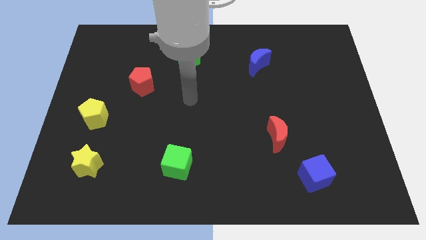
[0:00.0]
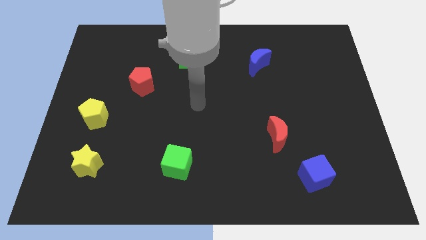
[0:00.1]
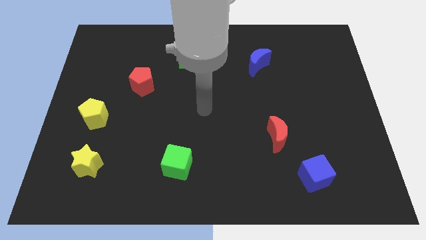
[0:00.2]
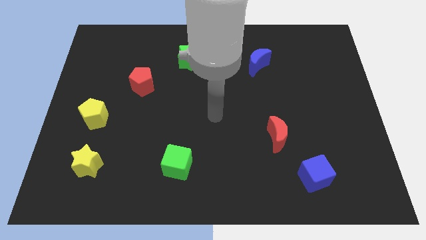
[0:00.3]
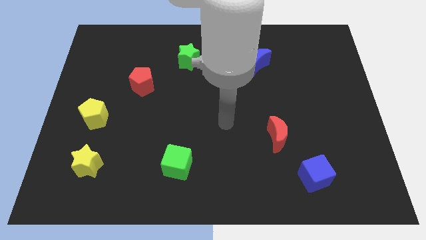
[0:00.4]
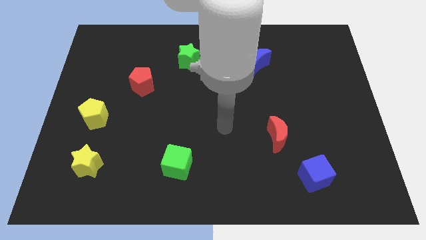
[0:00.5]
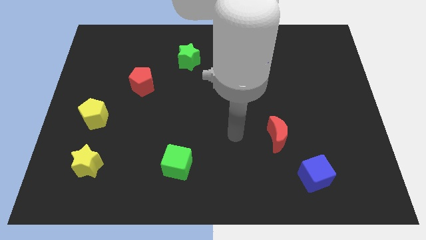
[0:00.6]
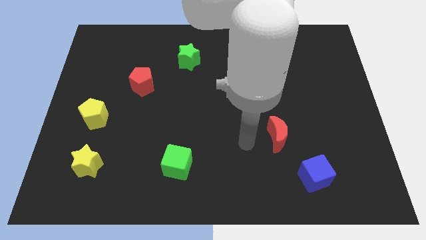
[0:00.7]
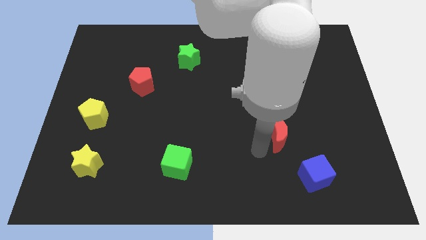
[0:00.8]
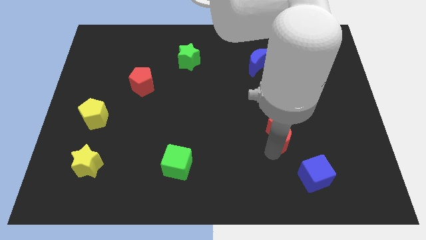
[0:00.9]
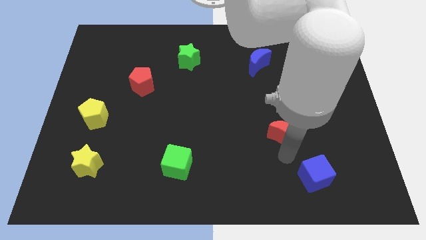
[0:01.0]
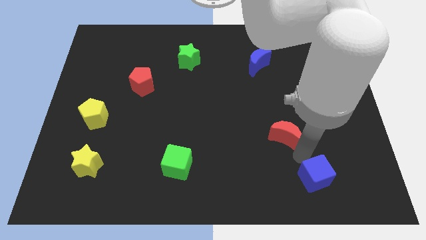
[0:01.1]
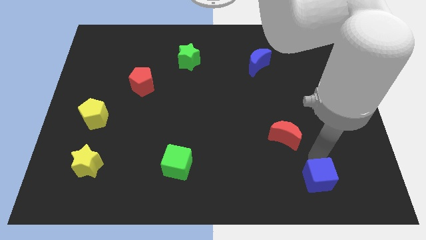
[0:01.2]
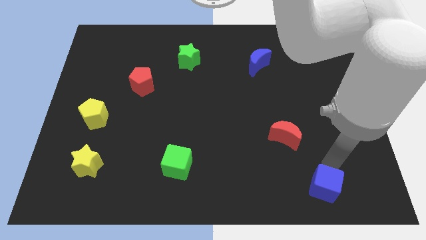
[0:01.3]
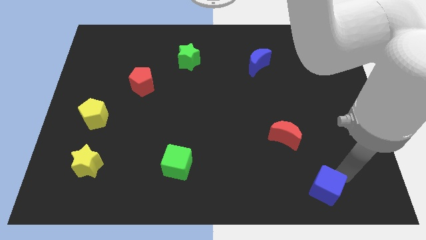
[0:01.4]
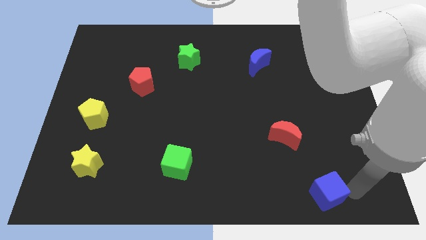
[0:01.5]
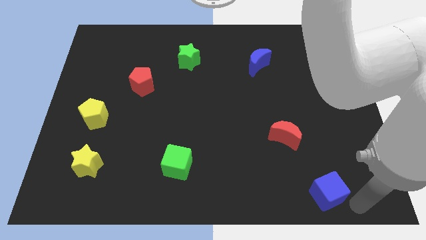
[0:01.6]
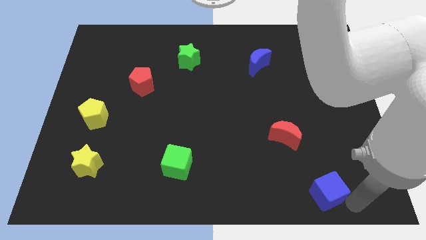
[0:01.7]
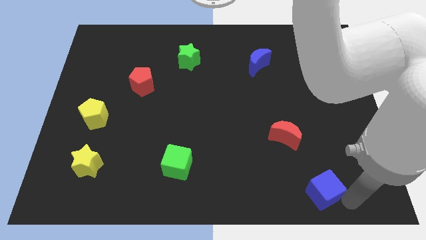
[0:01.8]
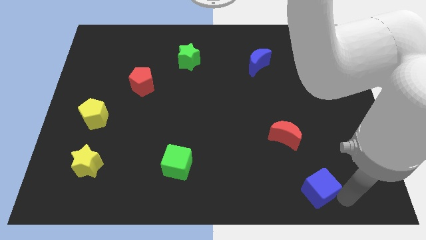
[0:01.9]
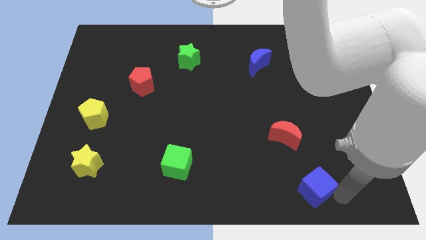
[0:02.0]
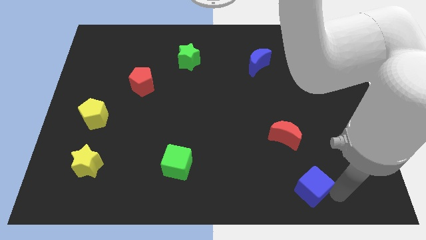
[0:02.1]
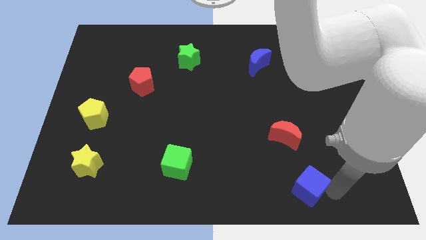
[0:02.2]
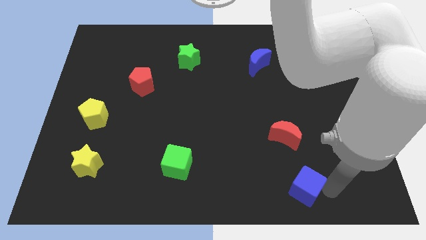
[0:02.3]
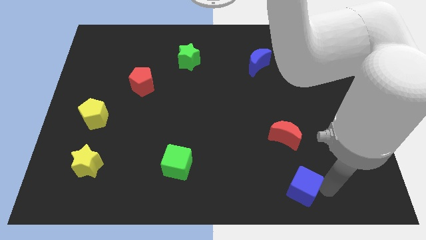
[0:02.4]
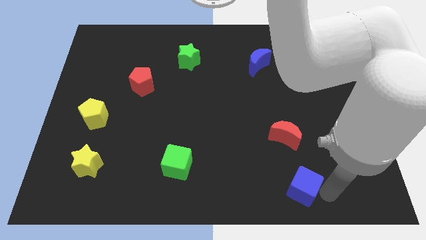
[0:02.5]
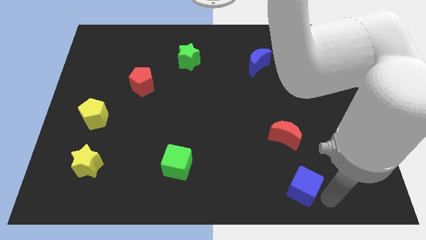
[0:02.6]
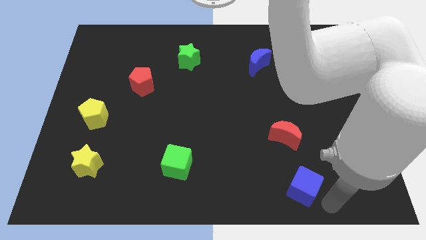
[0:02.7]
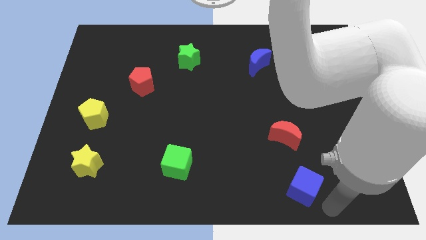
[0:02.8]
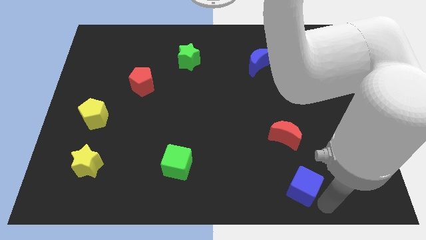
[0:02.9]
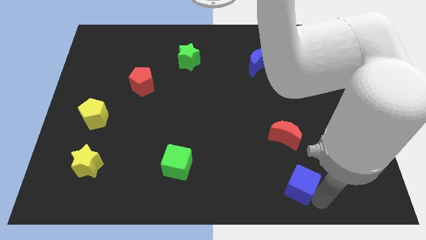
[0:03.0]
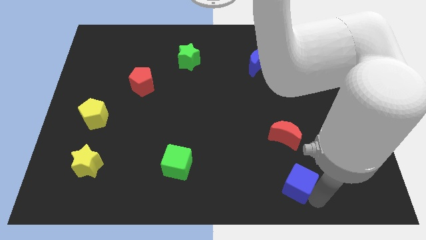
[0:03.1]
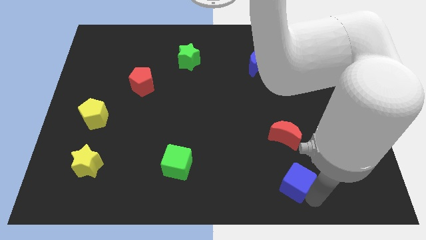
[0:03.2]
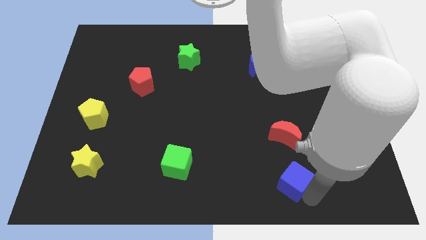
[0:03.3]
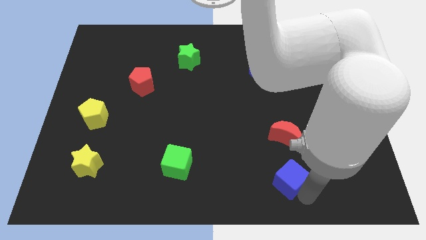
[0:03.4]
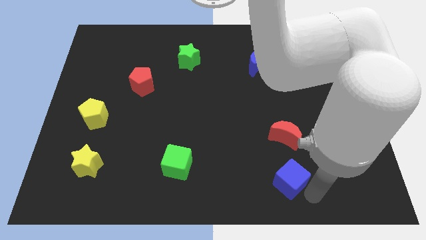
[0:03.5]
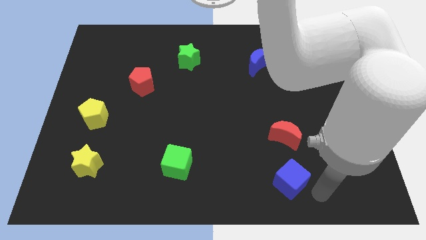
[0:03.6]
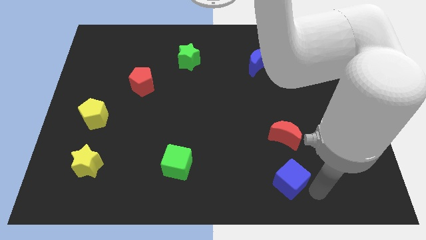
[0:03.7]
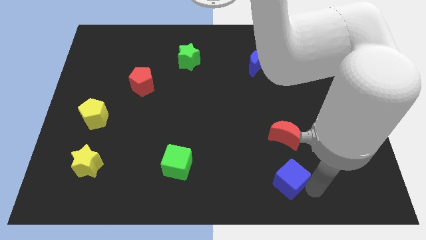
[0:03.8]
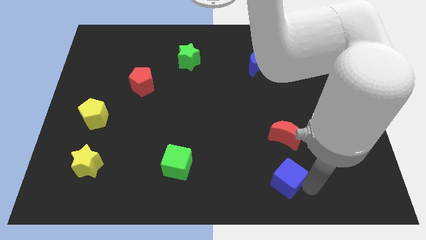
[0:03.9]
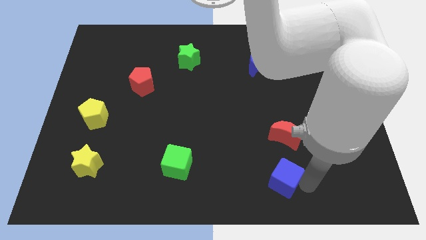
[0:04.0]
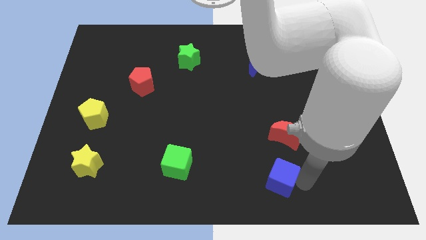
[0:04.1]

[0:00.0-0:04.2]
slide the blue cube a bit to the left

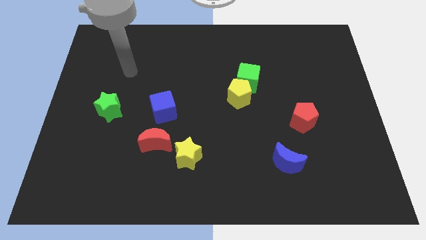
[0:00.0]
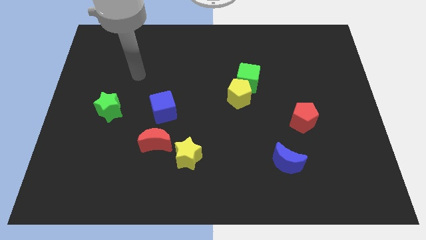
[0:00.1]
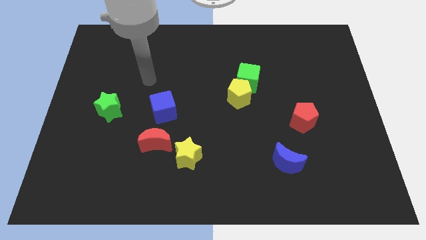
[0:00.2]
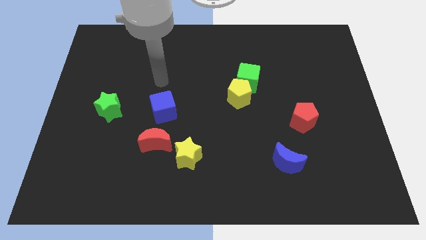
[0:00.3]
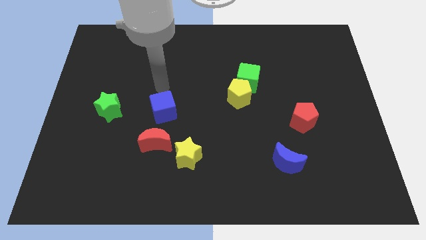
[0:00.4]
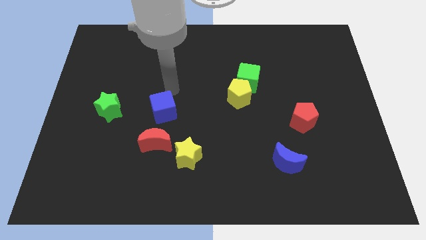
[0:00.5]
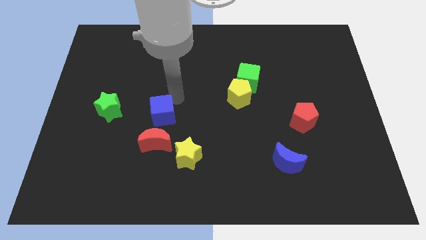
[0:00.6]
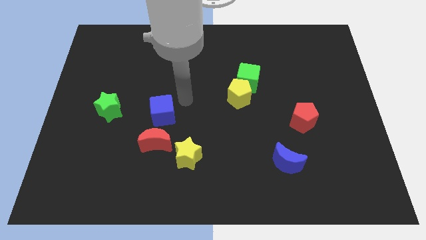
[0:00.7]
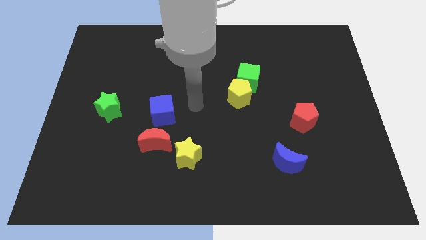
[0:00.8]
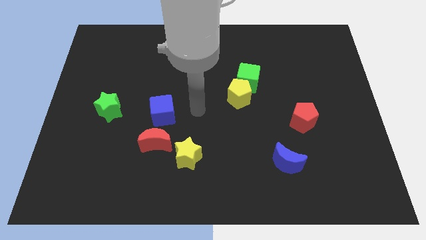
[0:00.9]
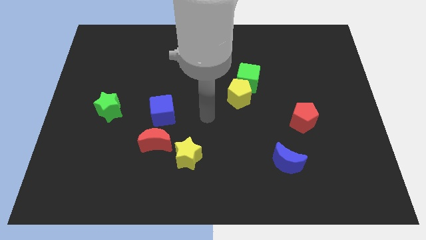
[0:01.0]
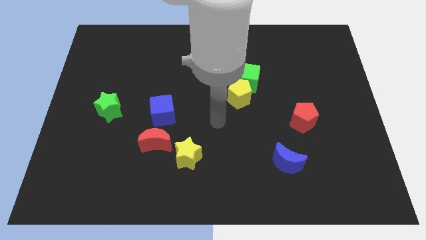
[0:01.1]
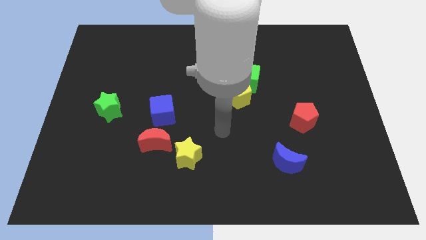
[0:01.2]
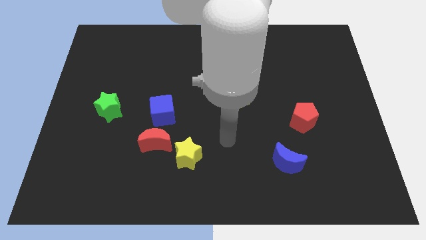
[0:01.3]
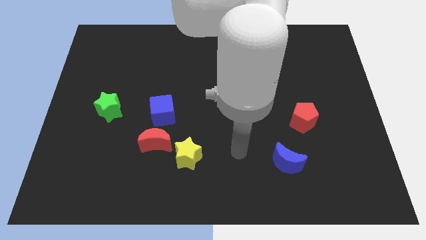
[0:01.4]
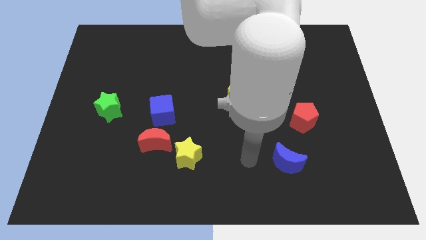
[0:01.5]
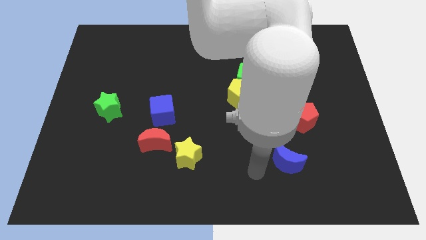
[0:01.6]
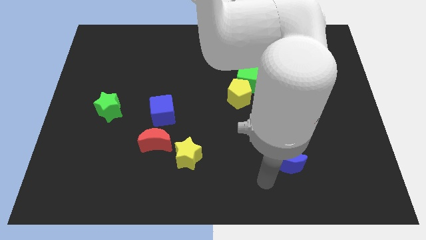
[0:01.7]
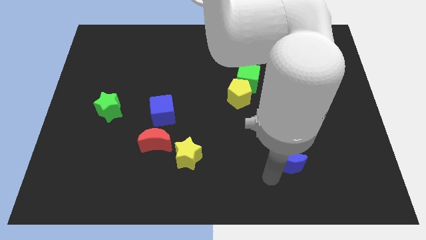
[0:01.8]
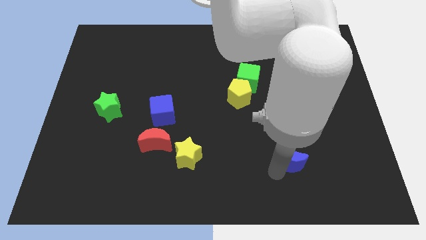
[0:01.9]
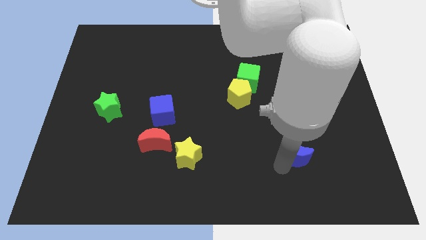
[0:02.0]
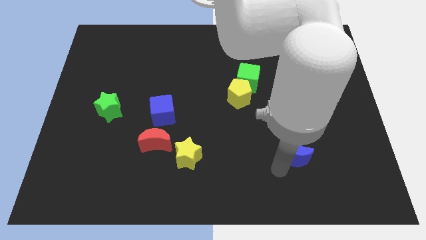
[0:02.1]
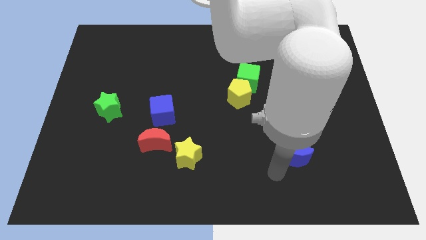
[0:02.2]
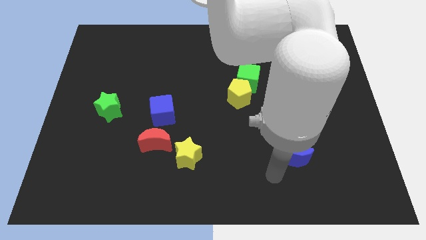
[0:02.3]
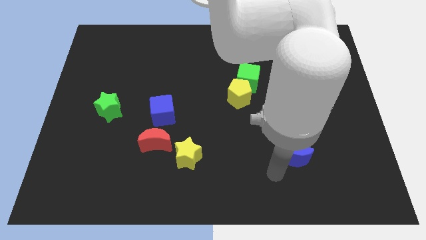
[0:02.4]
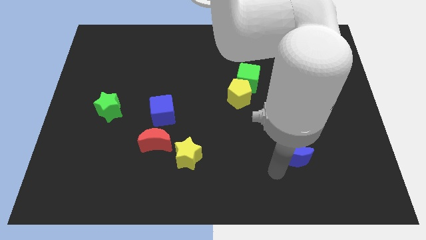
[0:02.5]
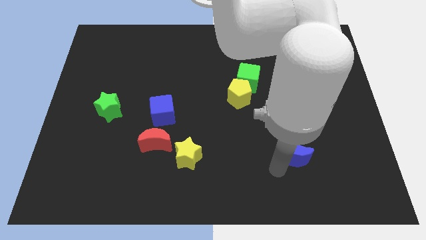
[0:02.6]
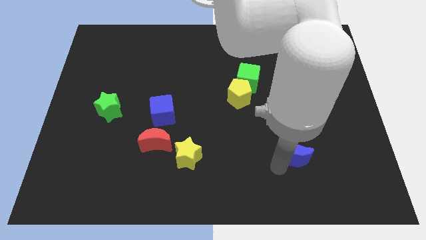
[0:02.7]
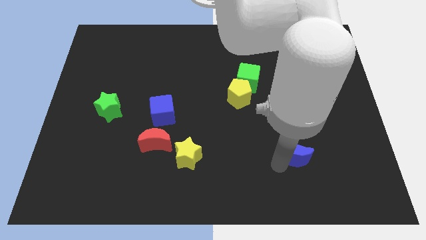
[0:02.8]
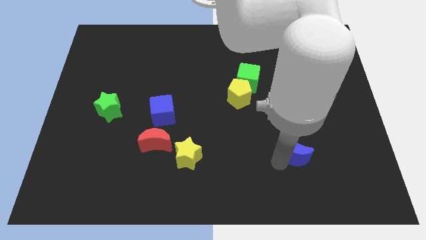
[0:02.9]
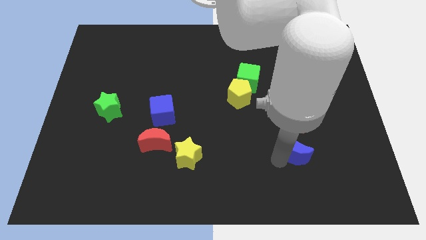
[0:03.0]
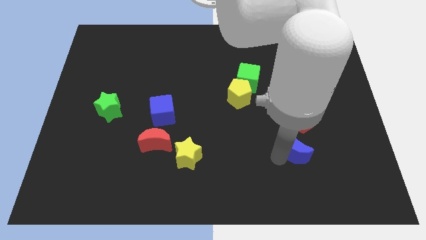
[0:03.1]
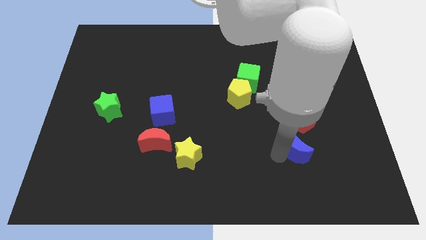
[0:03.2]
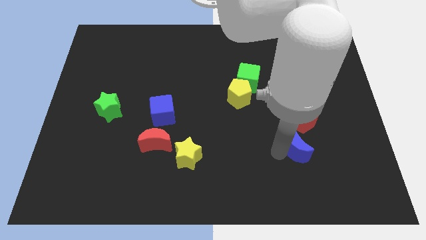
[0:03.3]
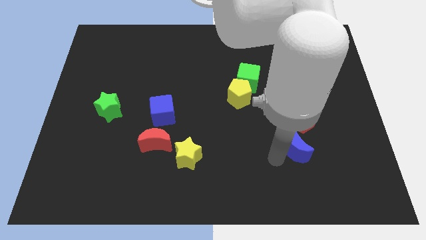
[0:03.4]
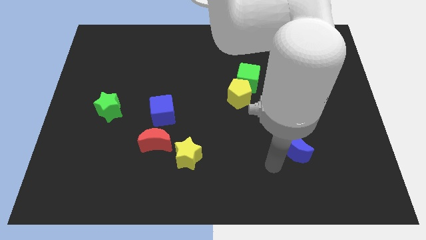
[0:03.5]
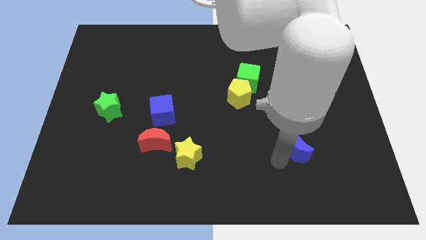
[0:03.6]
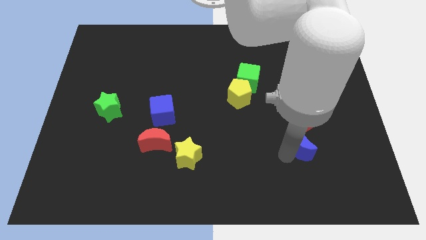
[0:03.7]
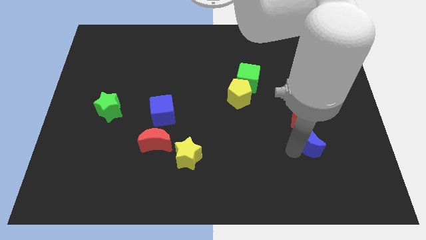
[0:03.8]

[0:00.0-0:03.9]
push the blue moon a little up and then right
